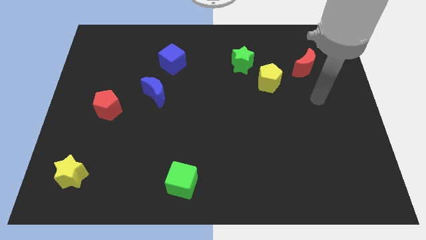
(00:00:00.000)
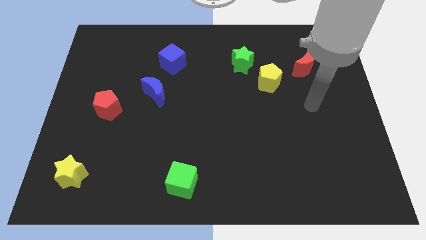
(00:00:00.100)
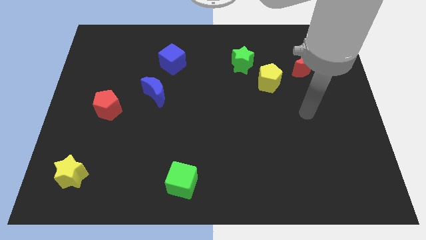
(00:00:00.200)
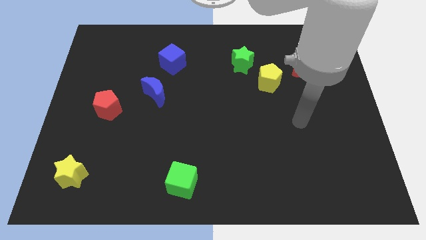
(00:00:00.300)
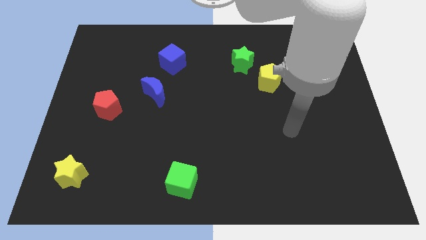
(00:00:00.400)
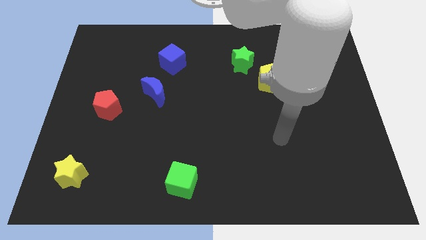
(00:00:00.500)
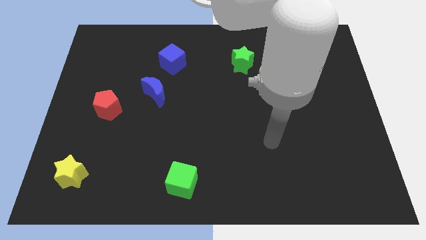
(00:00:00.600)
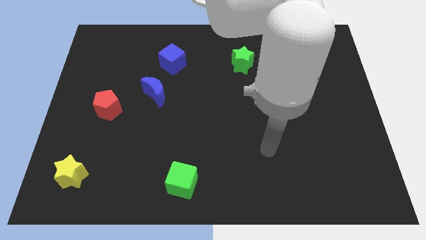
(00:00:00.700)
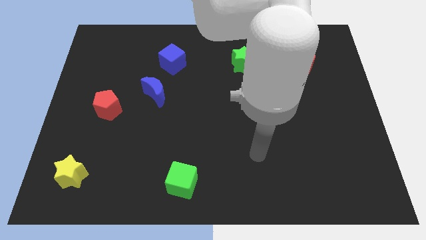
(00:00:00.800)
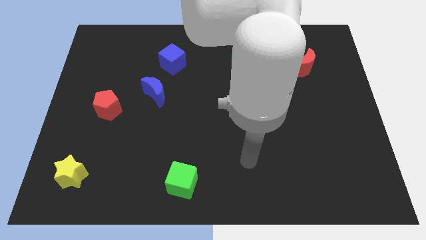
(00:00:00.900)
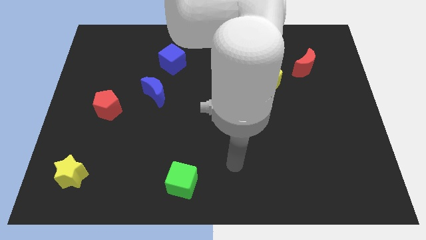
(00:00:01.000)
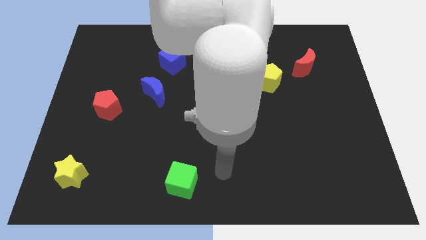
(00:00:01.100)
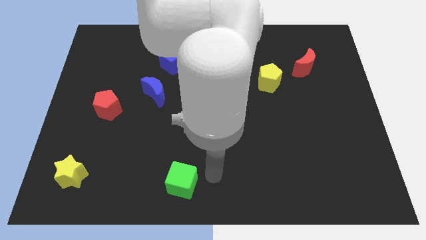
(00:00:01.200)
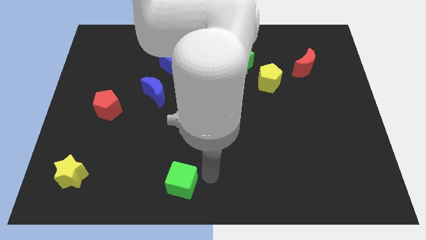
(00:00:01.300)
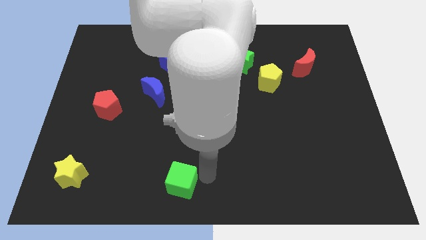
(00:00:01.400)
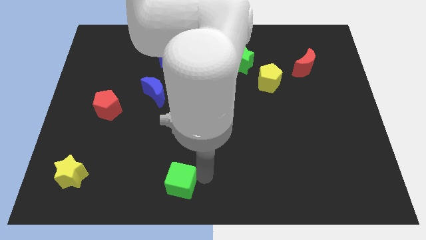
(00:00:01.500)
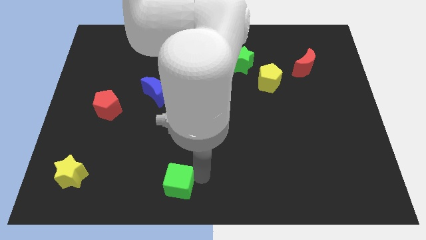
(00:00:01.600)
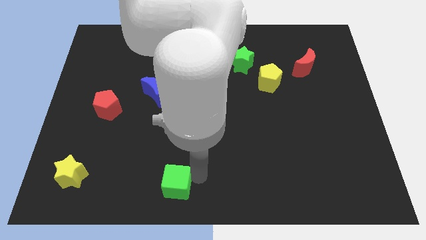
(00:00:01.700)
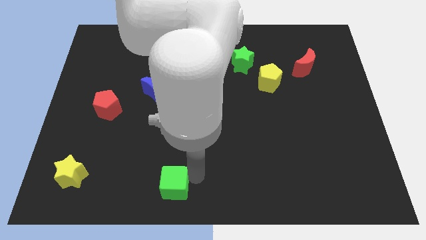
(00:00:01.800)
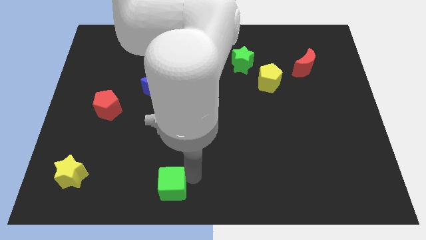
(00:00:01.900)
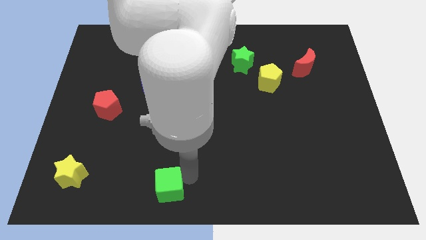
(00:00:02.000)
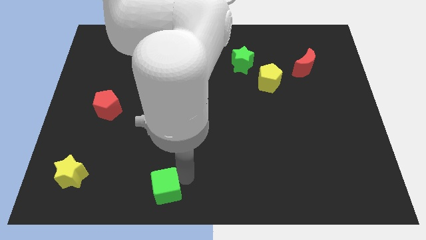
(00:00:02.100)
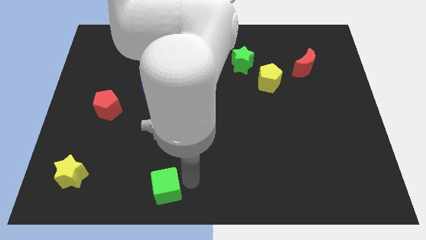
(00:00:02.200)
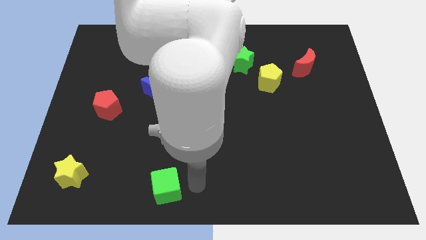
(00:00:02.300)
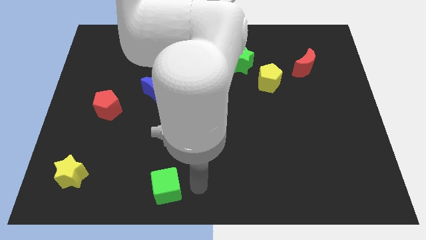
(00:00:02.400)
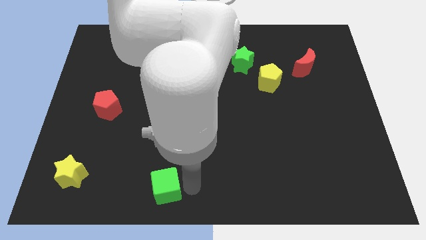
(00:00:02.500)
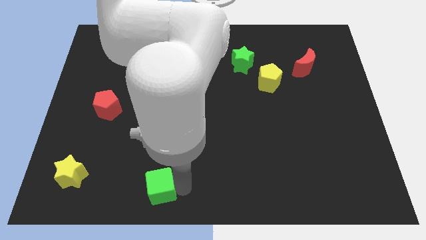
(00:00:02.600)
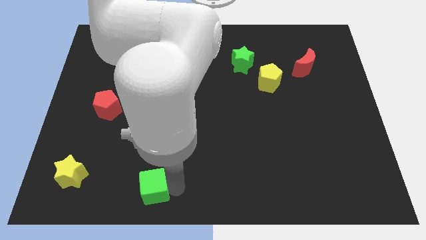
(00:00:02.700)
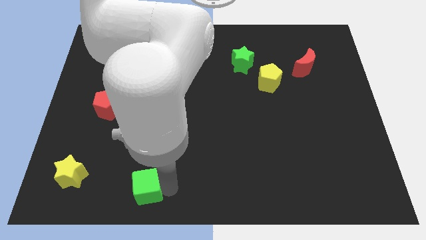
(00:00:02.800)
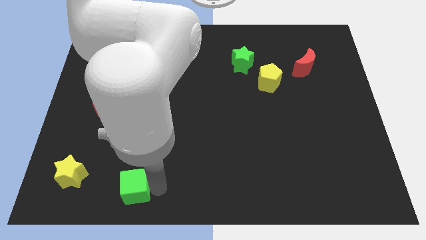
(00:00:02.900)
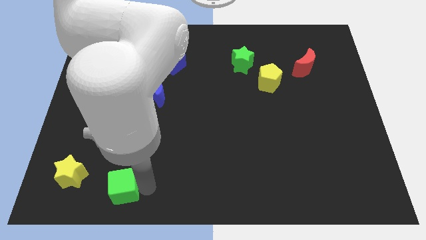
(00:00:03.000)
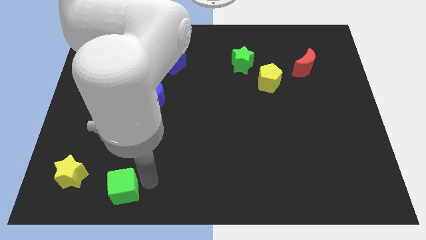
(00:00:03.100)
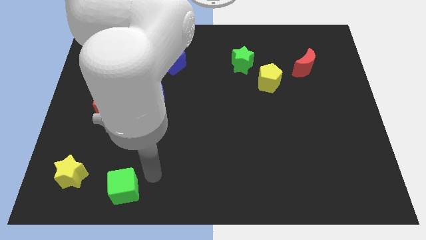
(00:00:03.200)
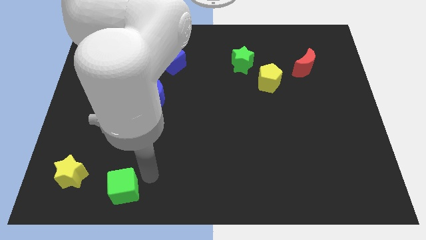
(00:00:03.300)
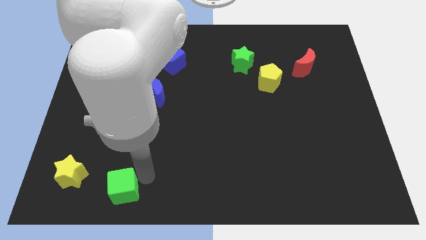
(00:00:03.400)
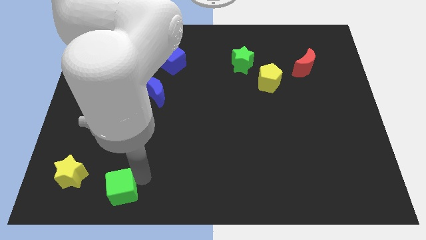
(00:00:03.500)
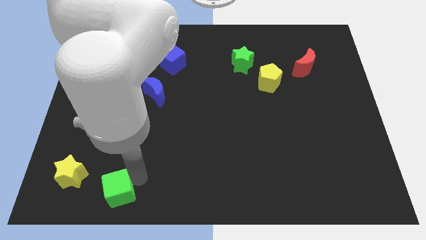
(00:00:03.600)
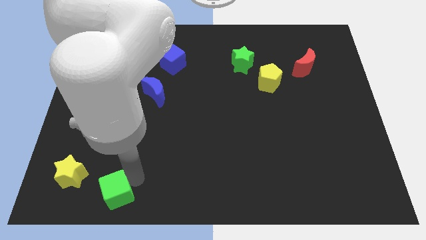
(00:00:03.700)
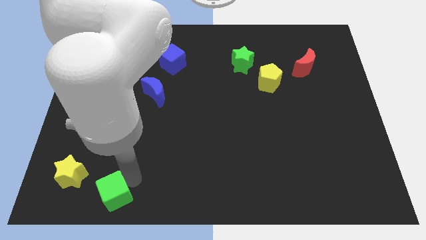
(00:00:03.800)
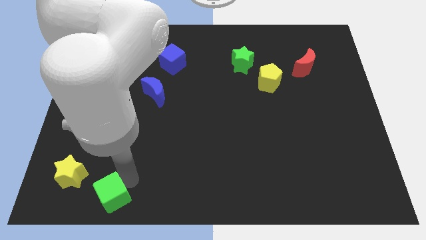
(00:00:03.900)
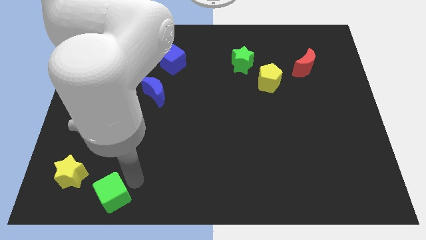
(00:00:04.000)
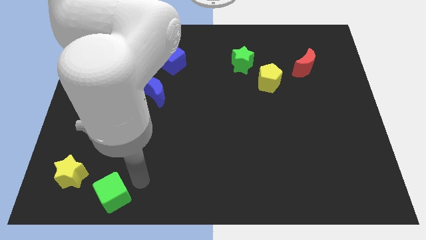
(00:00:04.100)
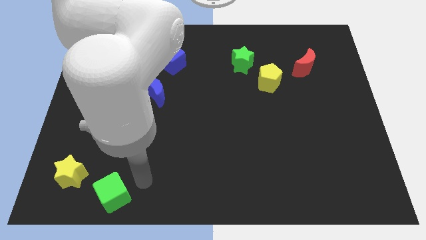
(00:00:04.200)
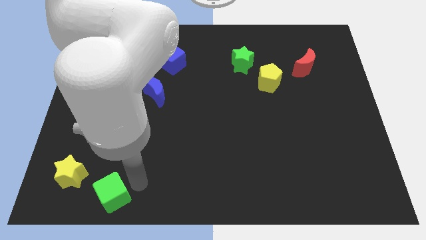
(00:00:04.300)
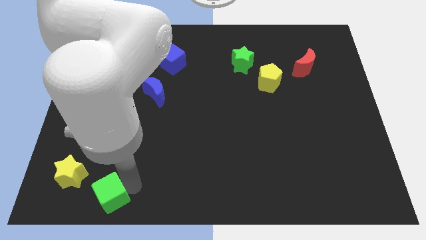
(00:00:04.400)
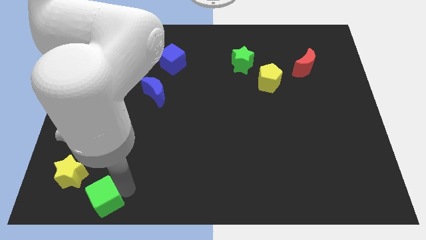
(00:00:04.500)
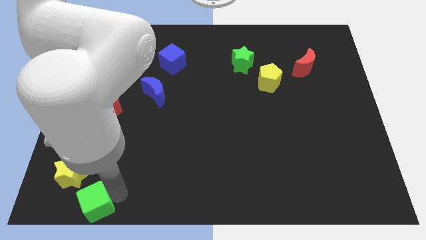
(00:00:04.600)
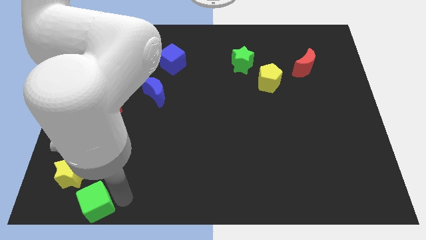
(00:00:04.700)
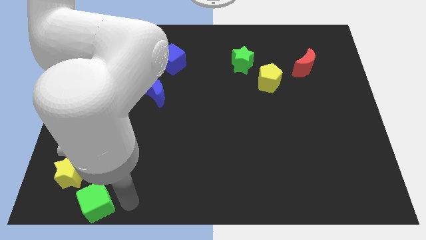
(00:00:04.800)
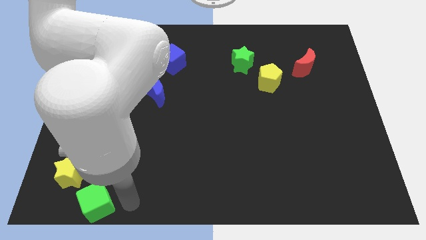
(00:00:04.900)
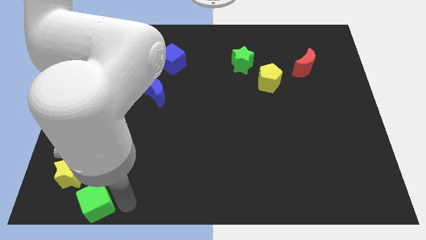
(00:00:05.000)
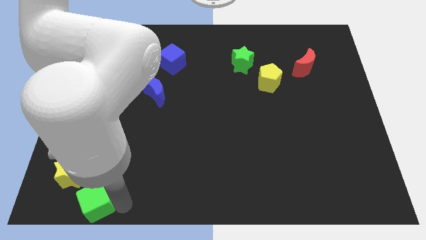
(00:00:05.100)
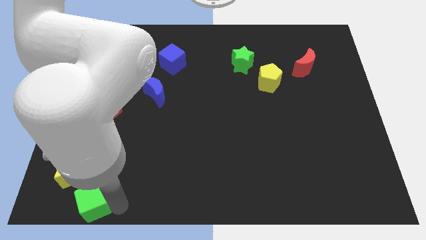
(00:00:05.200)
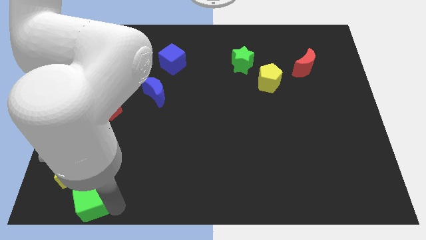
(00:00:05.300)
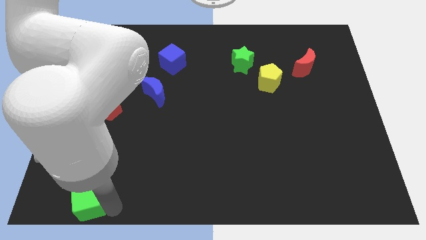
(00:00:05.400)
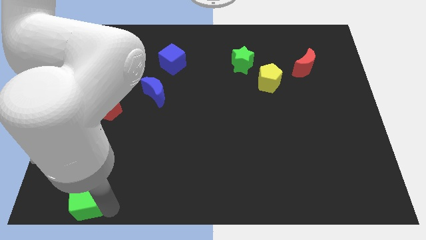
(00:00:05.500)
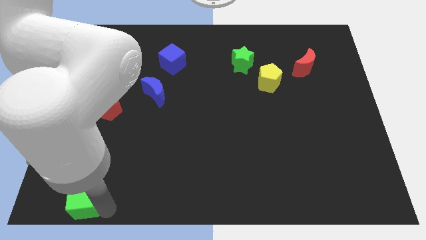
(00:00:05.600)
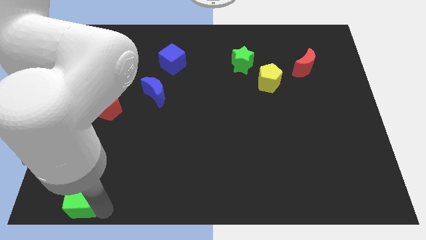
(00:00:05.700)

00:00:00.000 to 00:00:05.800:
push the green cube to the lower left corner

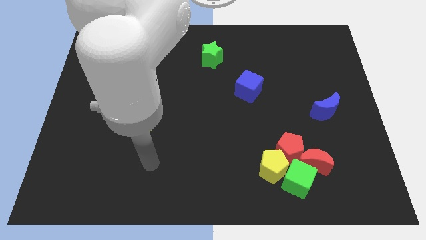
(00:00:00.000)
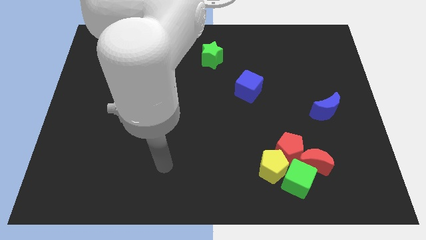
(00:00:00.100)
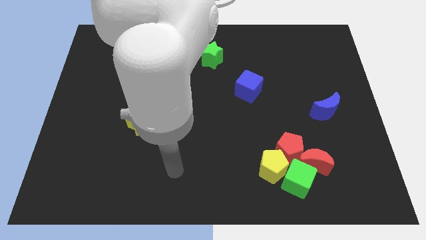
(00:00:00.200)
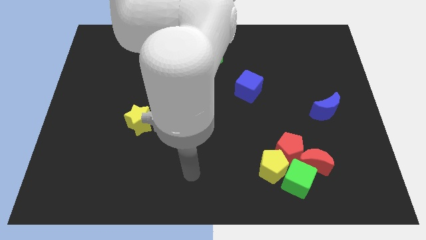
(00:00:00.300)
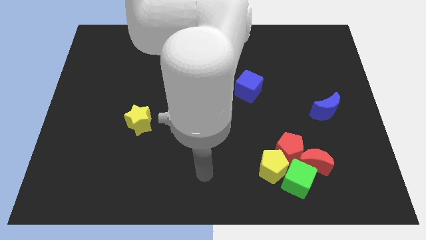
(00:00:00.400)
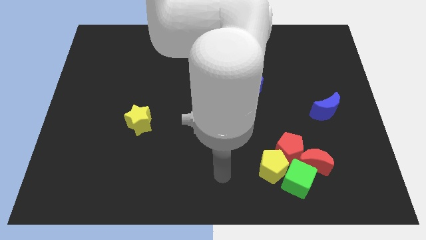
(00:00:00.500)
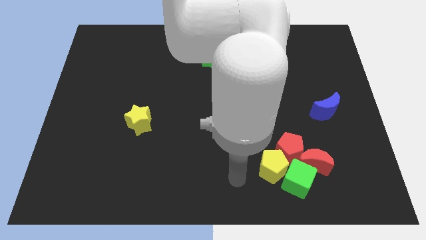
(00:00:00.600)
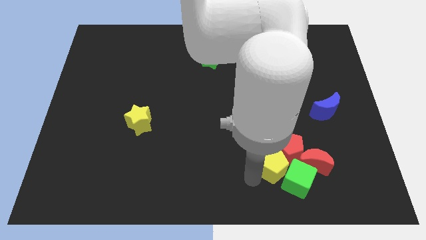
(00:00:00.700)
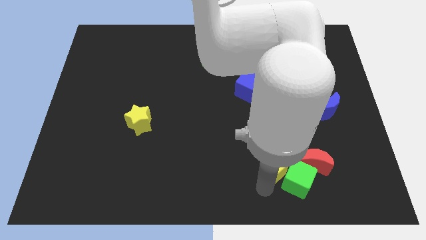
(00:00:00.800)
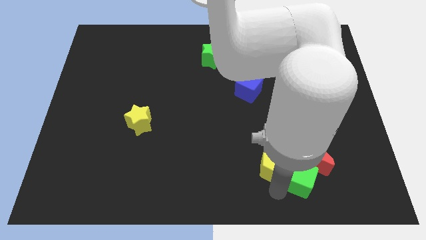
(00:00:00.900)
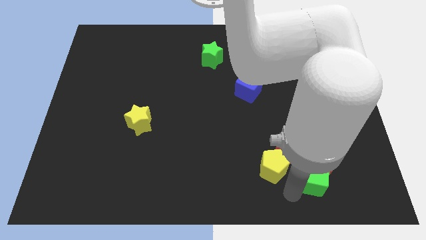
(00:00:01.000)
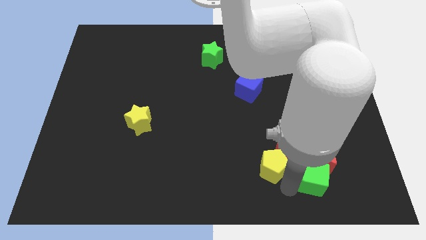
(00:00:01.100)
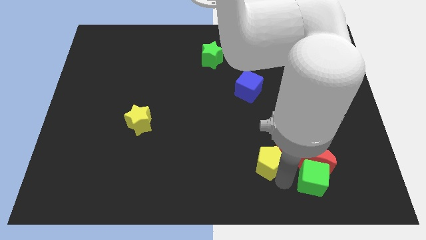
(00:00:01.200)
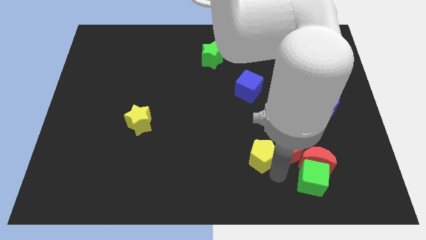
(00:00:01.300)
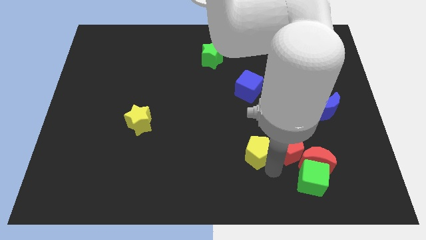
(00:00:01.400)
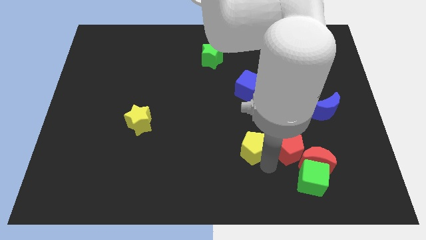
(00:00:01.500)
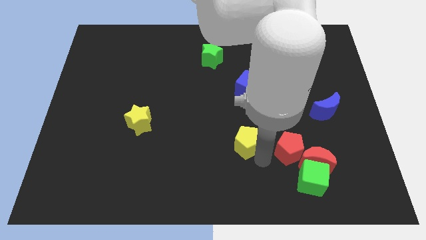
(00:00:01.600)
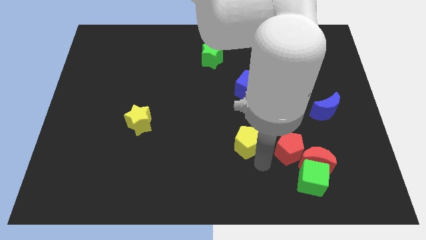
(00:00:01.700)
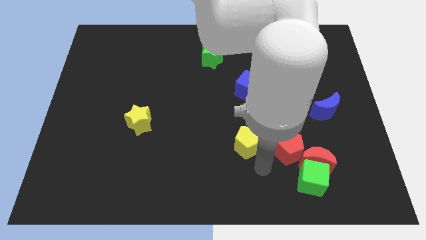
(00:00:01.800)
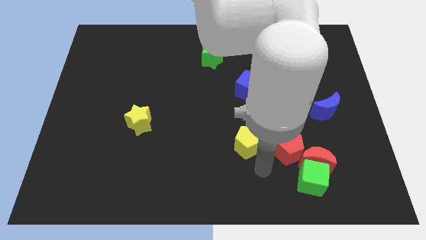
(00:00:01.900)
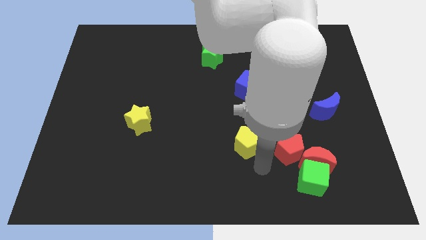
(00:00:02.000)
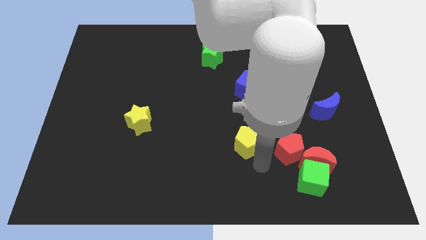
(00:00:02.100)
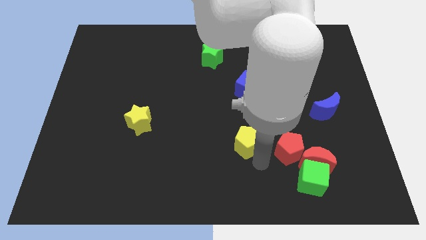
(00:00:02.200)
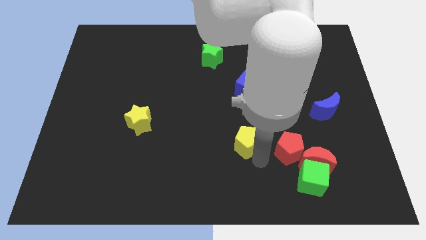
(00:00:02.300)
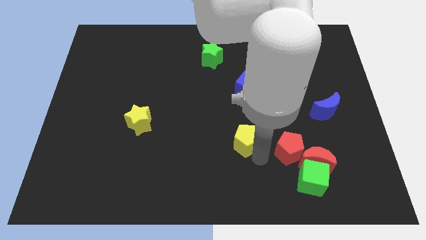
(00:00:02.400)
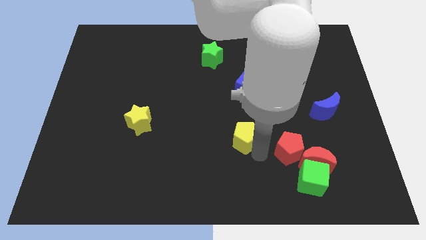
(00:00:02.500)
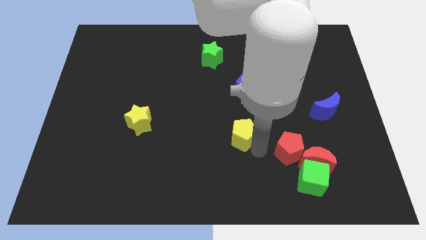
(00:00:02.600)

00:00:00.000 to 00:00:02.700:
put the yellow pentagon to the center
